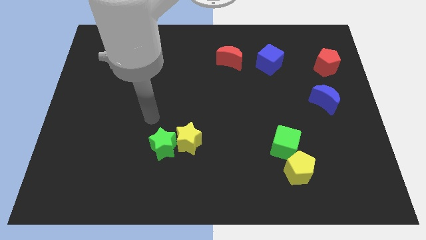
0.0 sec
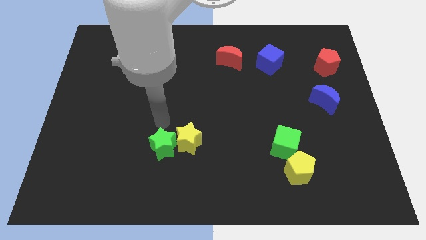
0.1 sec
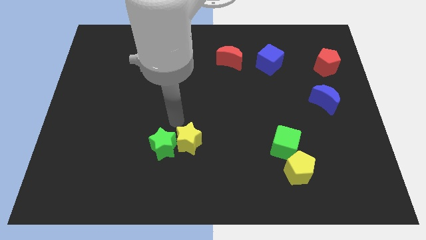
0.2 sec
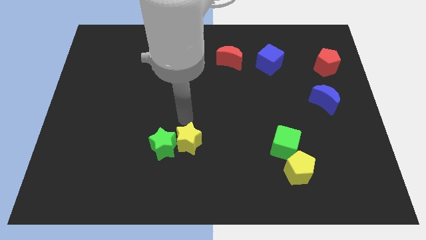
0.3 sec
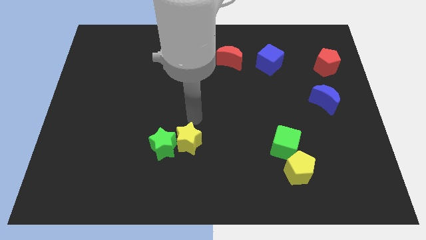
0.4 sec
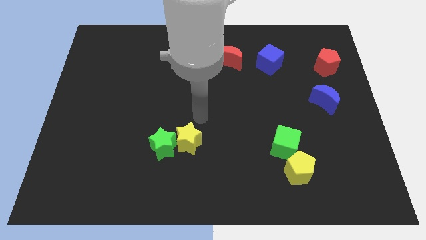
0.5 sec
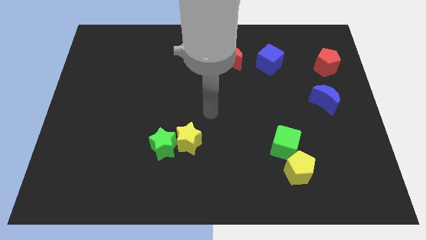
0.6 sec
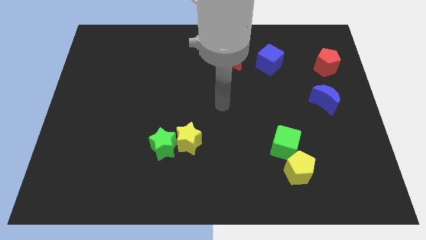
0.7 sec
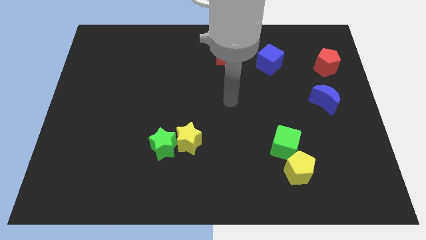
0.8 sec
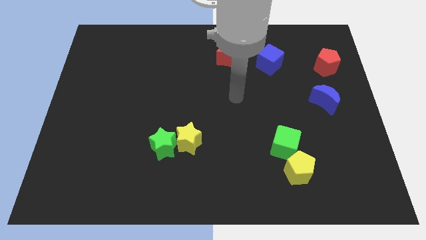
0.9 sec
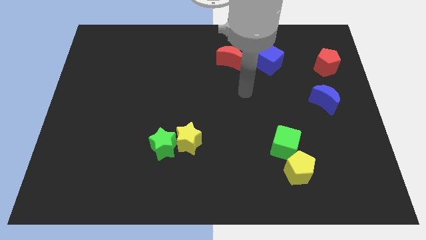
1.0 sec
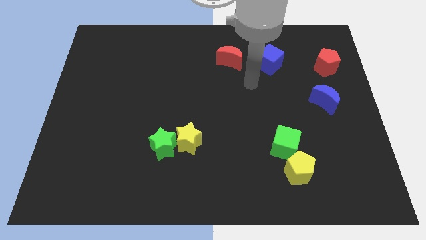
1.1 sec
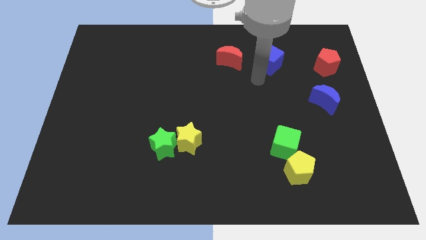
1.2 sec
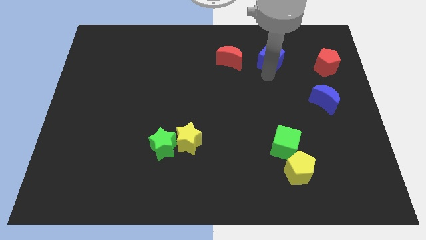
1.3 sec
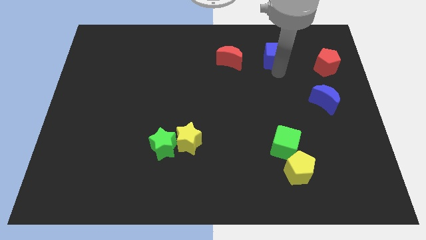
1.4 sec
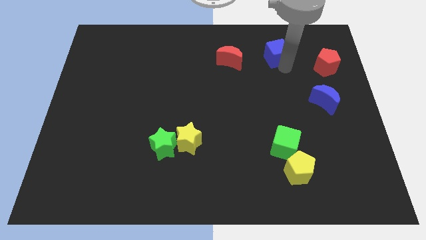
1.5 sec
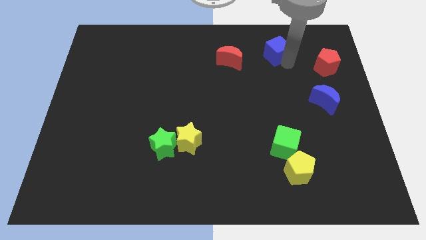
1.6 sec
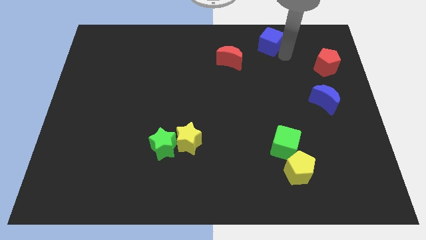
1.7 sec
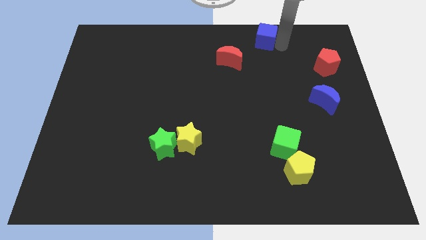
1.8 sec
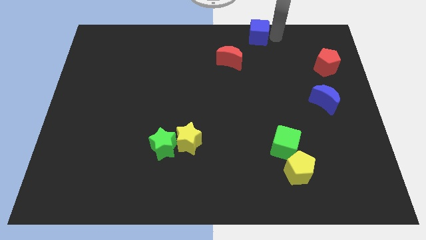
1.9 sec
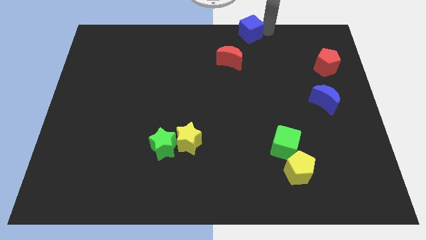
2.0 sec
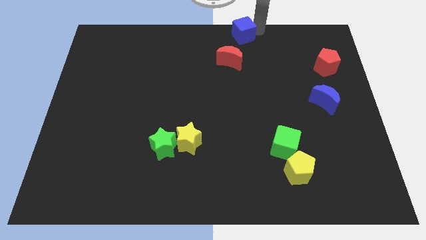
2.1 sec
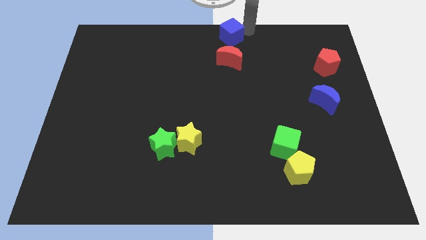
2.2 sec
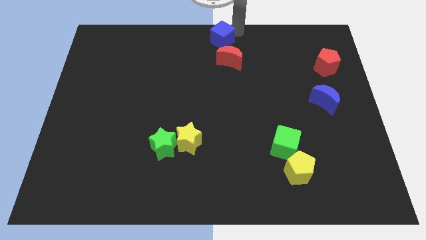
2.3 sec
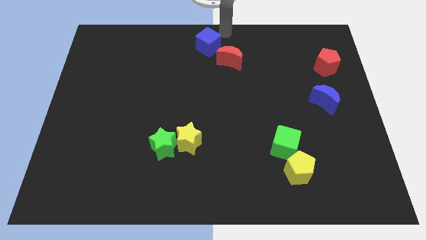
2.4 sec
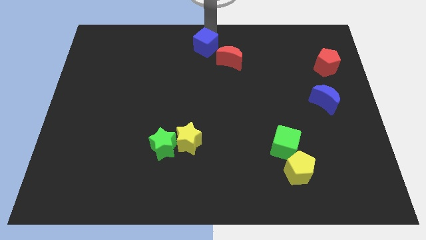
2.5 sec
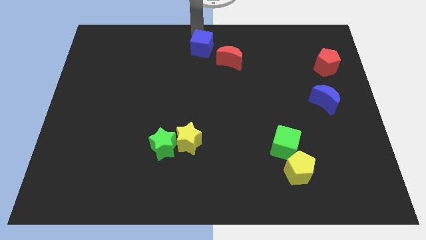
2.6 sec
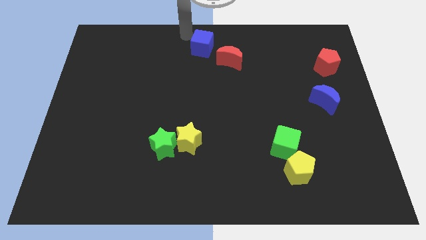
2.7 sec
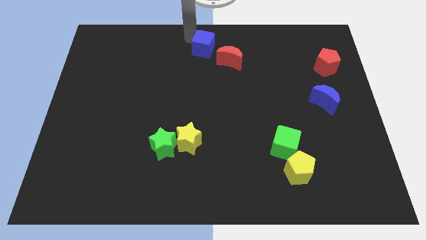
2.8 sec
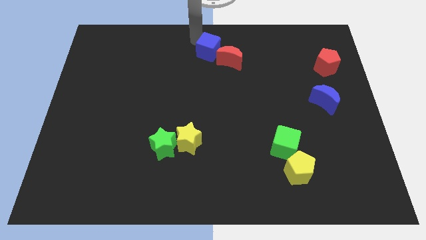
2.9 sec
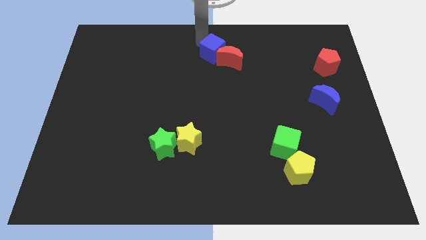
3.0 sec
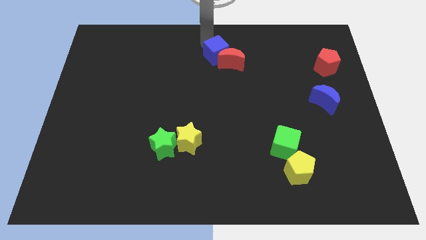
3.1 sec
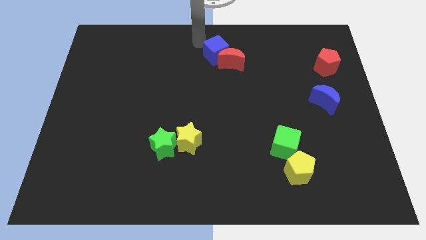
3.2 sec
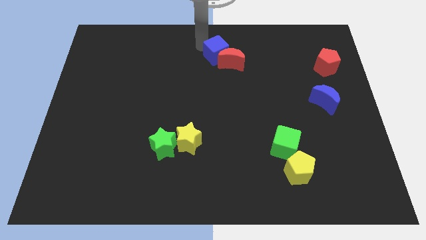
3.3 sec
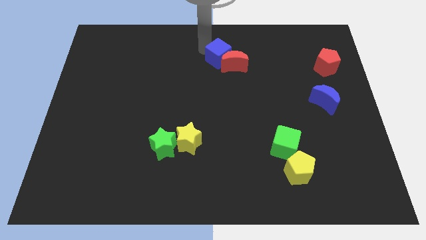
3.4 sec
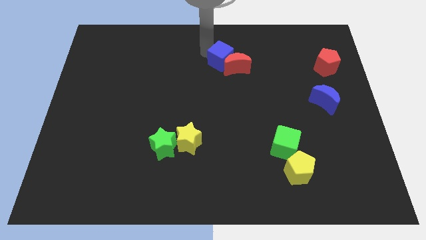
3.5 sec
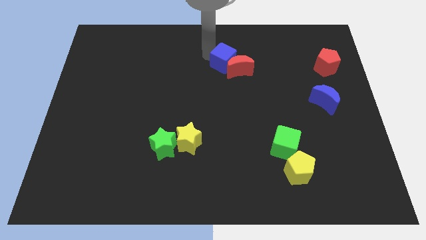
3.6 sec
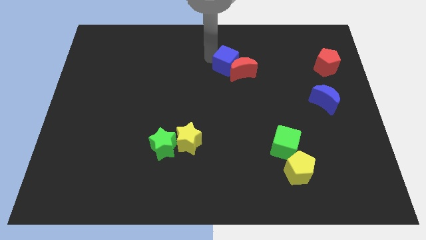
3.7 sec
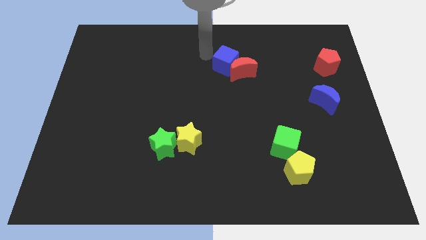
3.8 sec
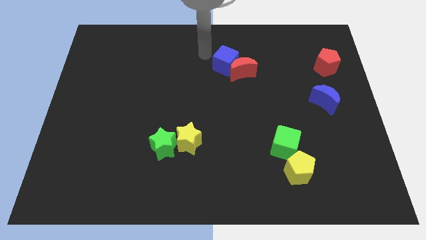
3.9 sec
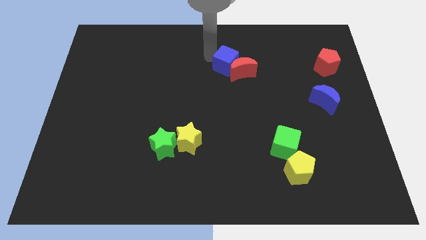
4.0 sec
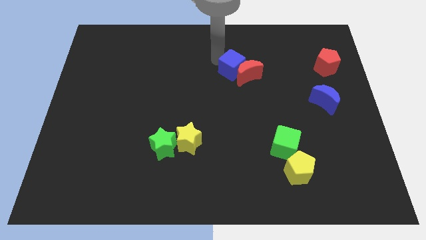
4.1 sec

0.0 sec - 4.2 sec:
slightly push the blue cube diagonally down and to the left

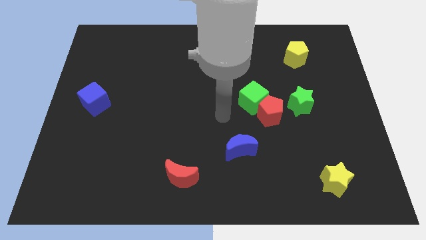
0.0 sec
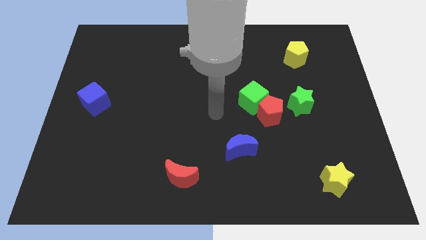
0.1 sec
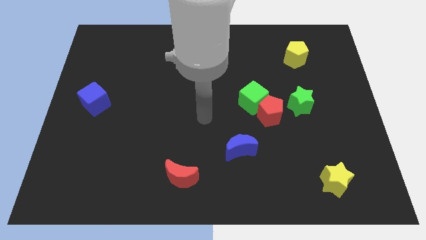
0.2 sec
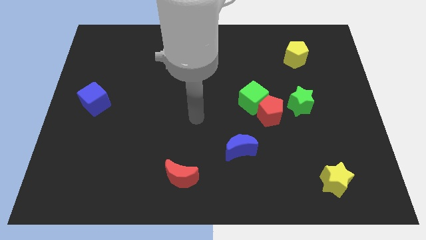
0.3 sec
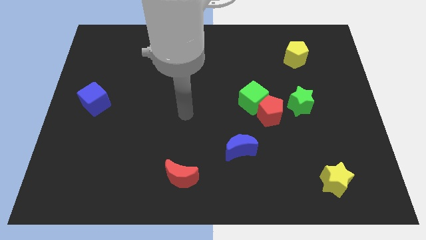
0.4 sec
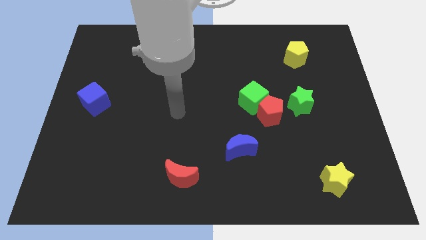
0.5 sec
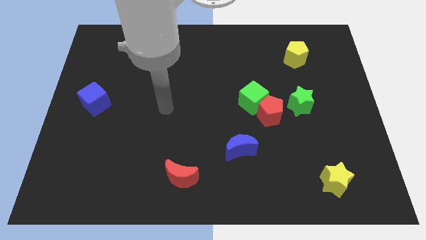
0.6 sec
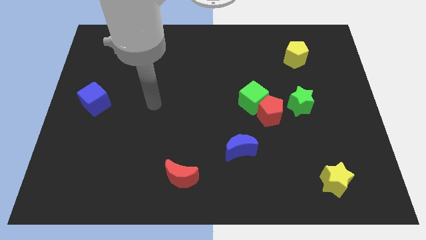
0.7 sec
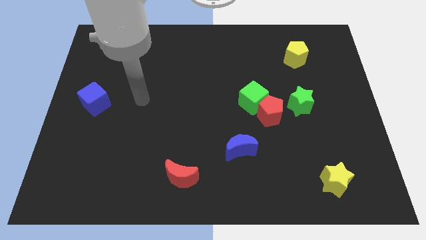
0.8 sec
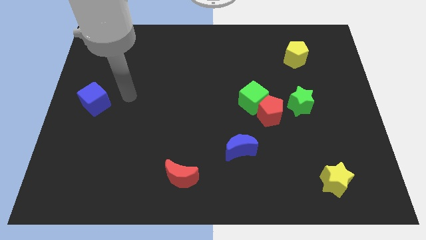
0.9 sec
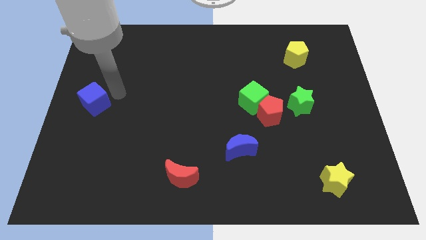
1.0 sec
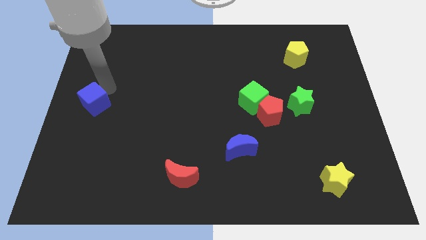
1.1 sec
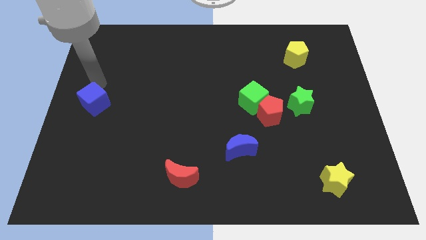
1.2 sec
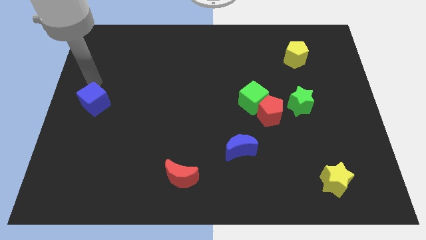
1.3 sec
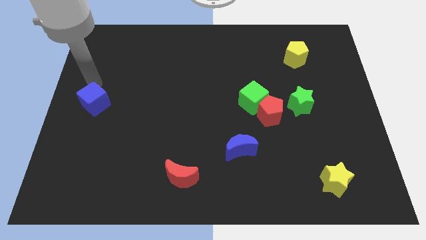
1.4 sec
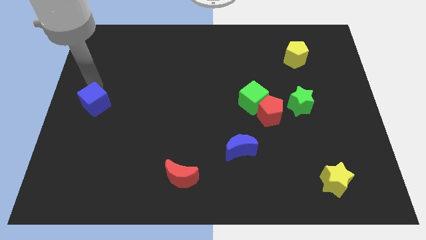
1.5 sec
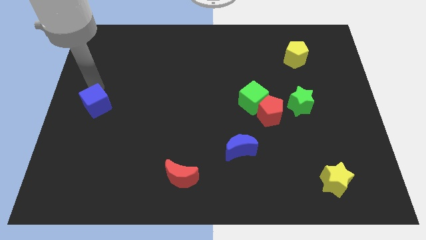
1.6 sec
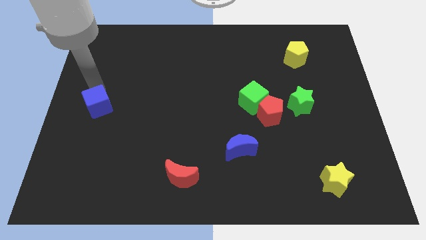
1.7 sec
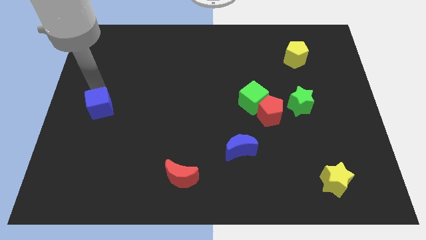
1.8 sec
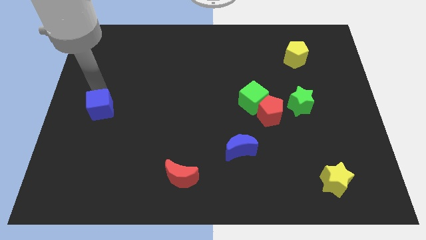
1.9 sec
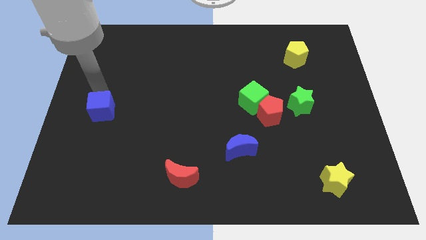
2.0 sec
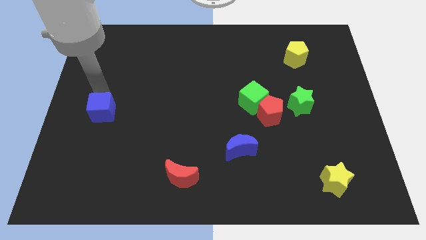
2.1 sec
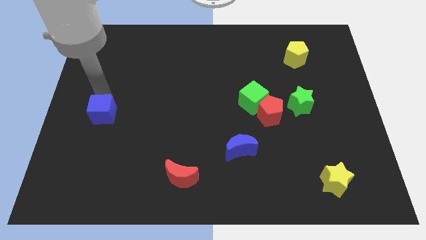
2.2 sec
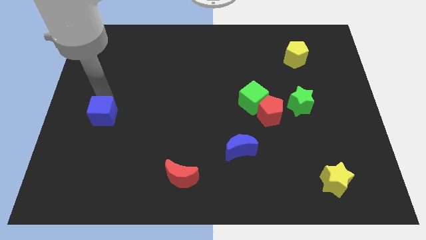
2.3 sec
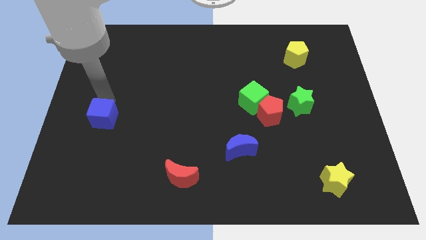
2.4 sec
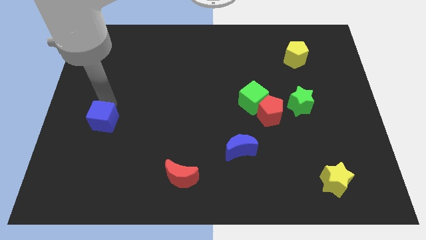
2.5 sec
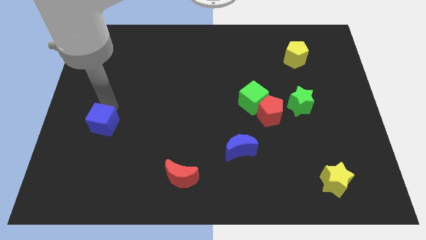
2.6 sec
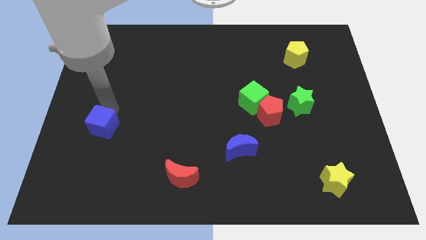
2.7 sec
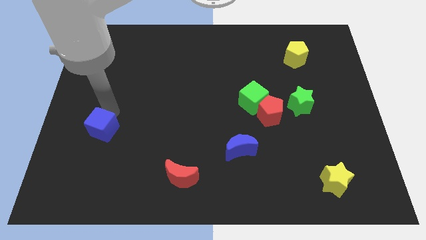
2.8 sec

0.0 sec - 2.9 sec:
push the blue cube downwards a little

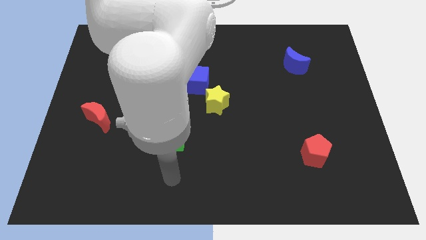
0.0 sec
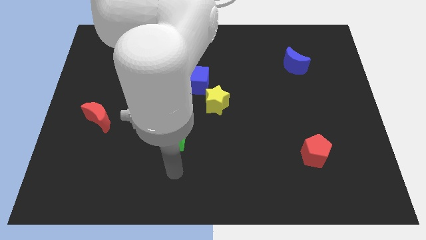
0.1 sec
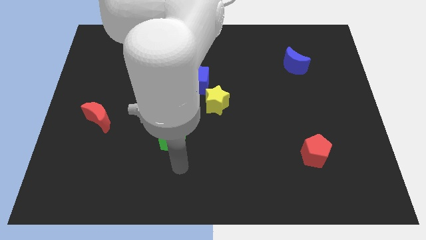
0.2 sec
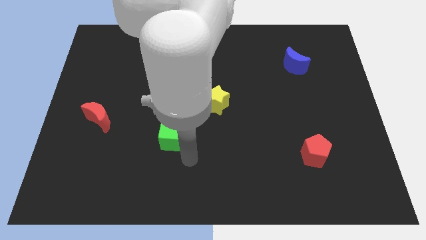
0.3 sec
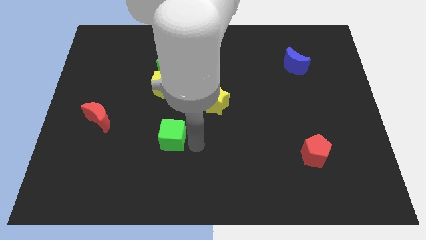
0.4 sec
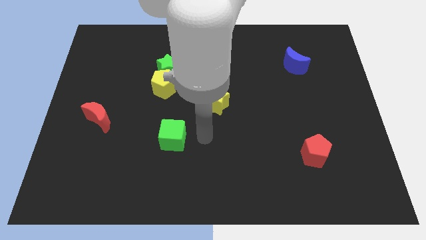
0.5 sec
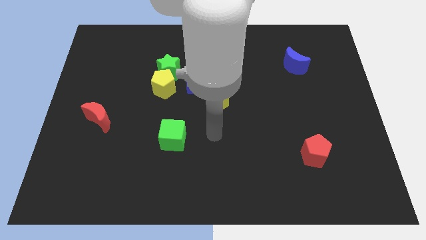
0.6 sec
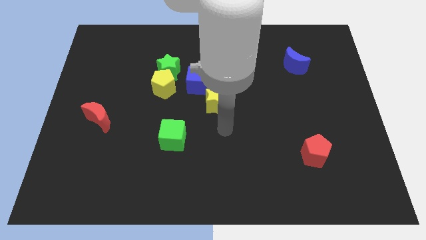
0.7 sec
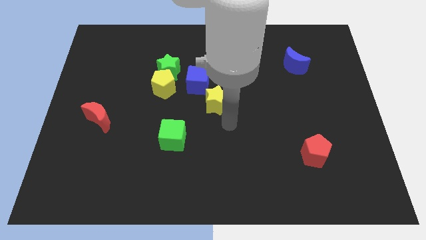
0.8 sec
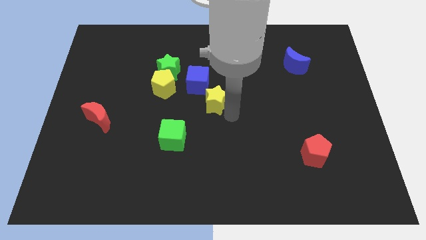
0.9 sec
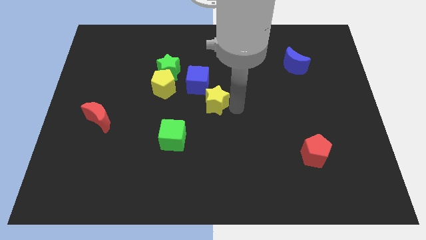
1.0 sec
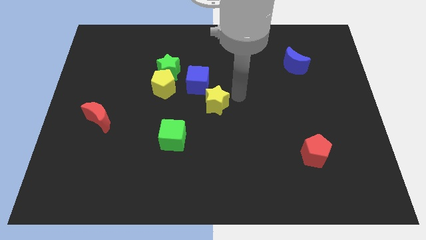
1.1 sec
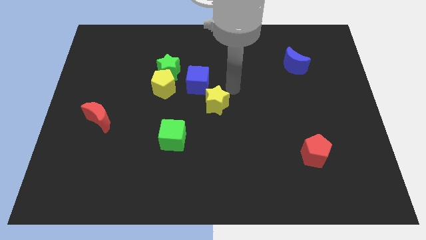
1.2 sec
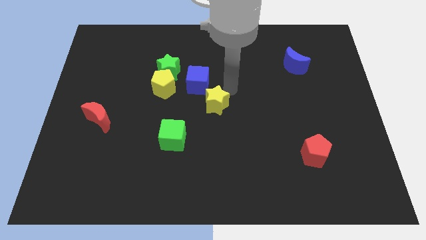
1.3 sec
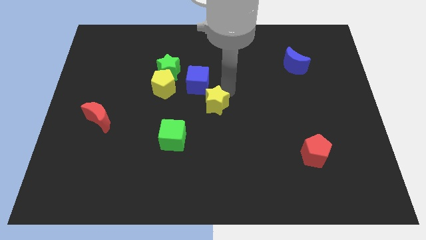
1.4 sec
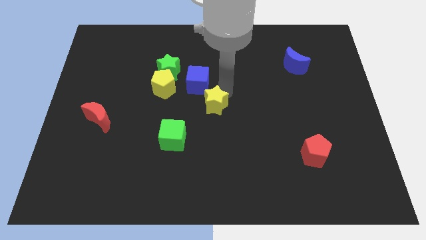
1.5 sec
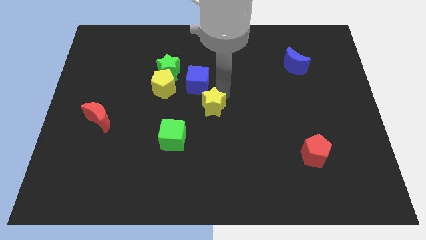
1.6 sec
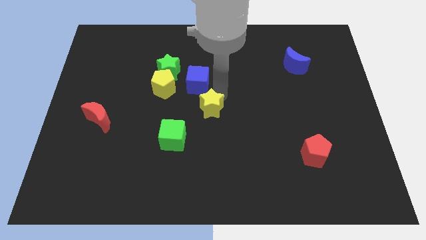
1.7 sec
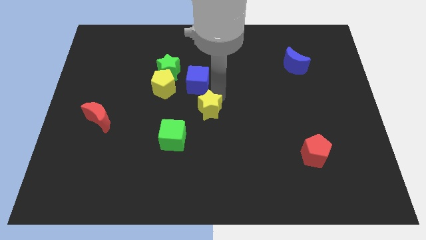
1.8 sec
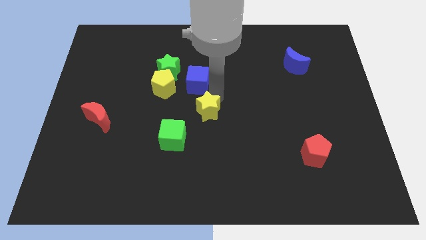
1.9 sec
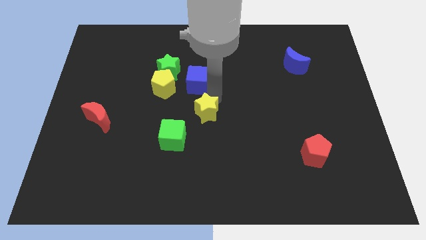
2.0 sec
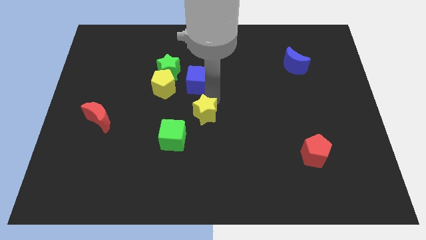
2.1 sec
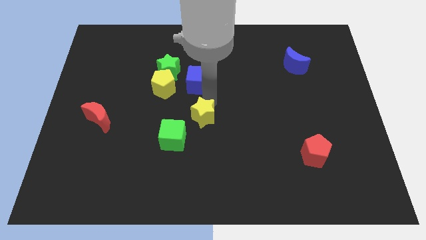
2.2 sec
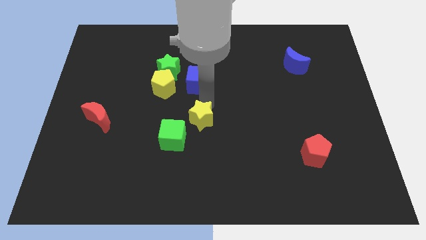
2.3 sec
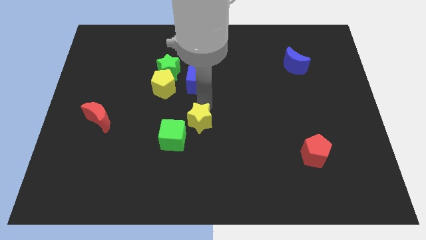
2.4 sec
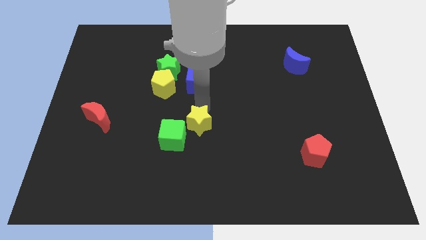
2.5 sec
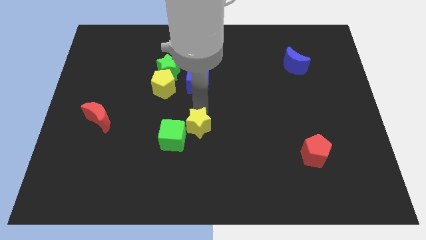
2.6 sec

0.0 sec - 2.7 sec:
push the yellow star slightly down and then to the left
